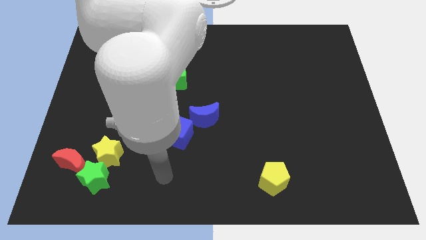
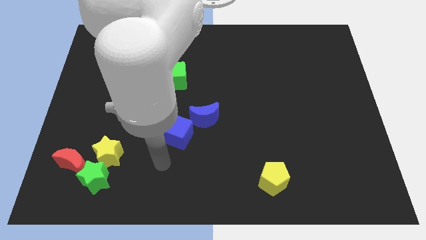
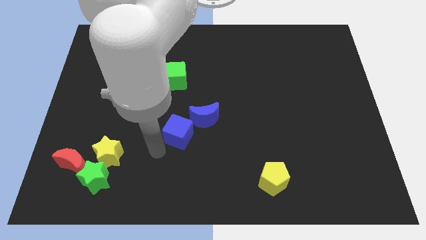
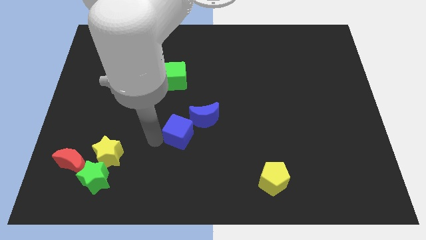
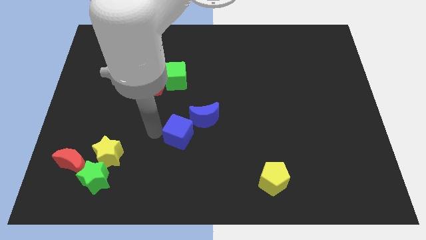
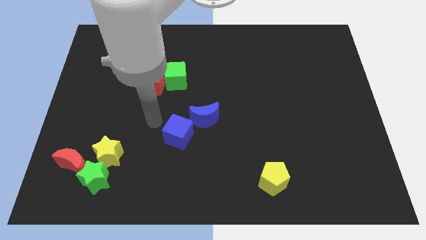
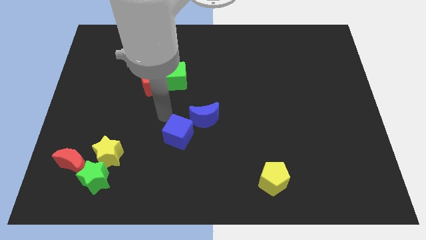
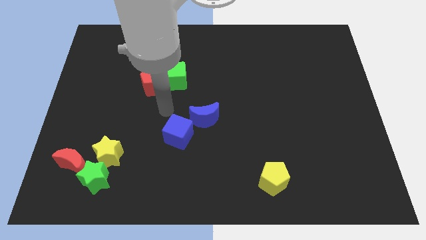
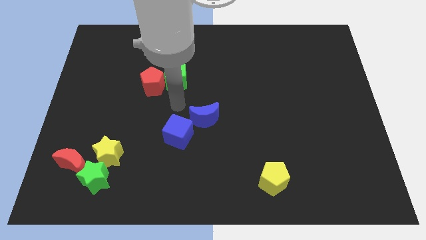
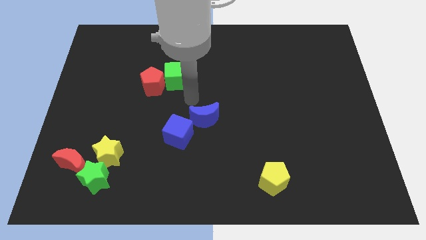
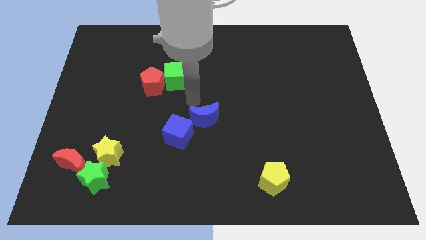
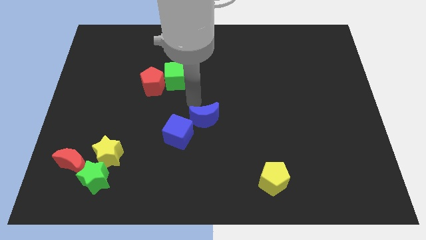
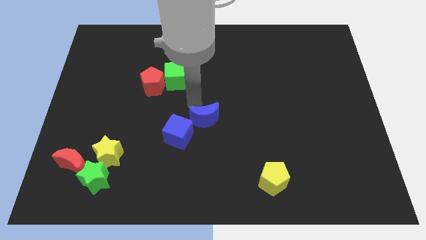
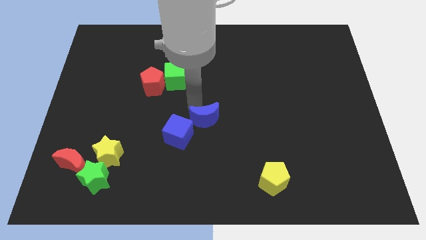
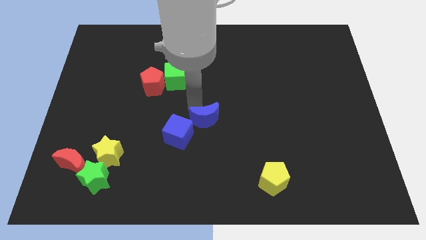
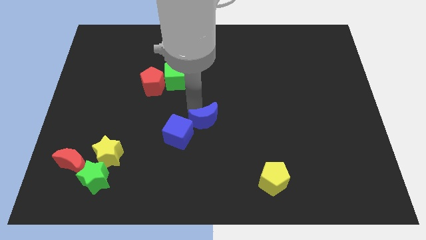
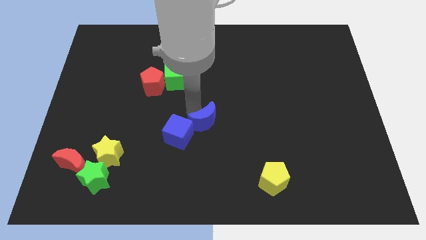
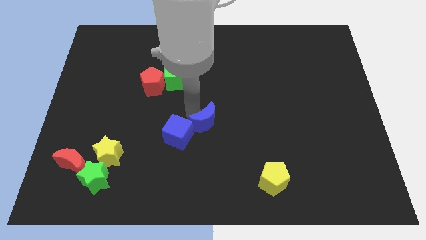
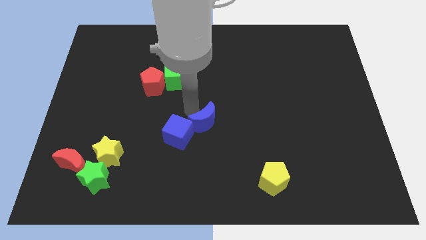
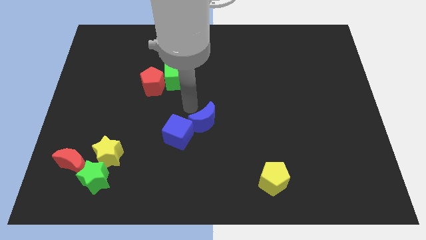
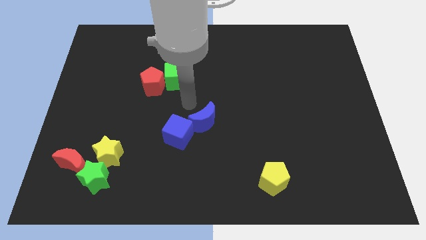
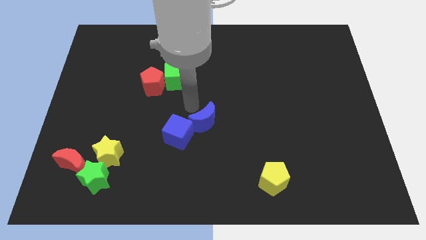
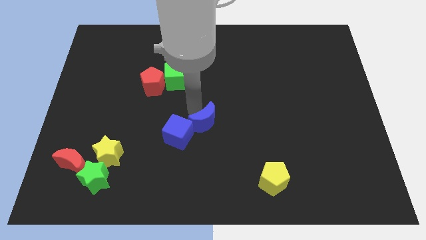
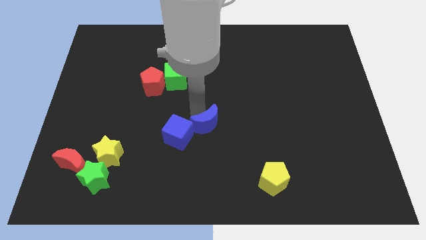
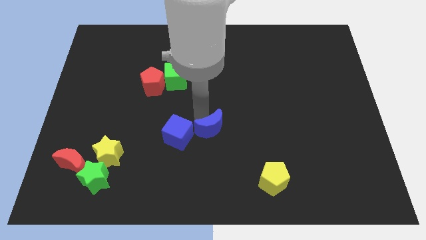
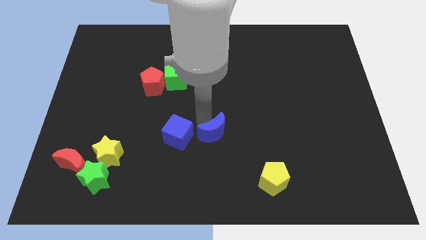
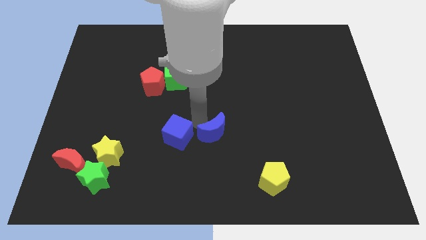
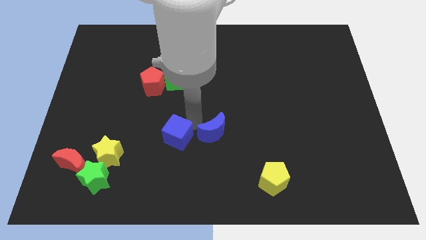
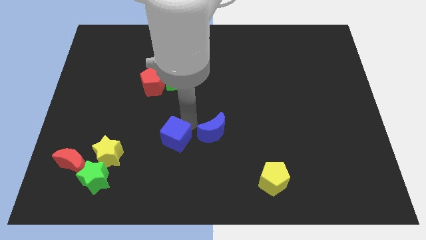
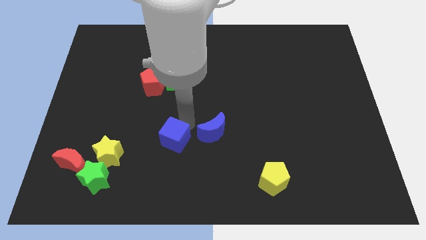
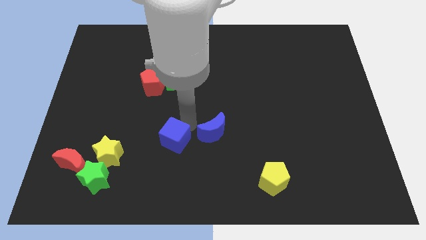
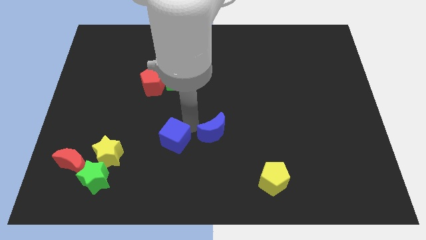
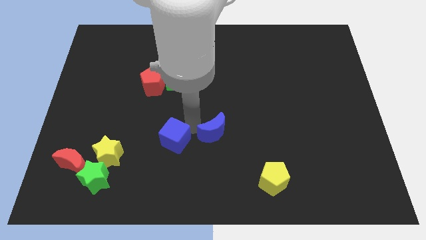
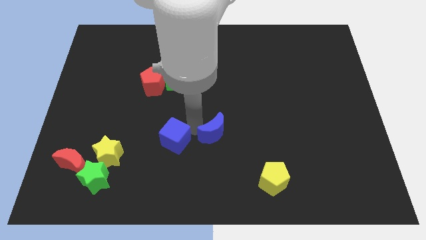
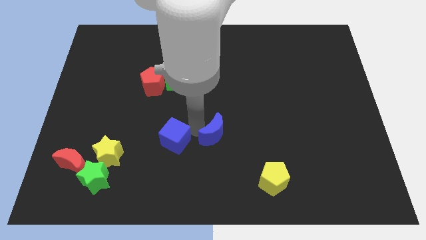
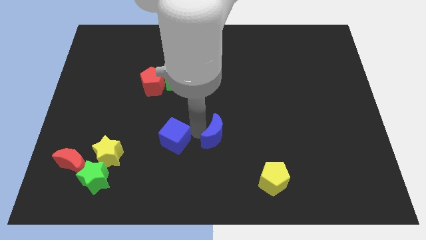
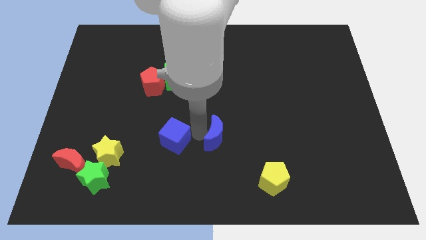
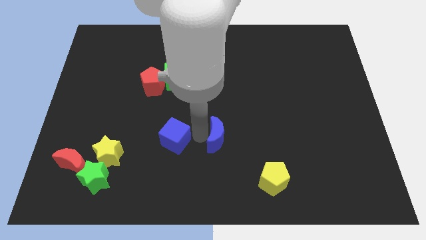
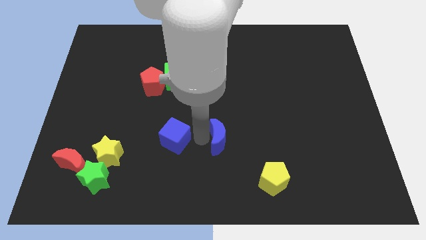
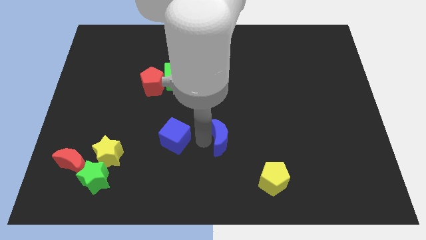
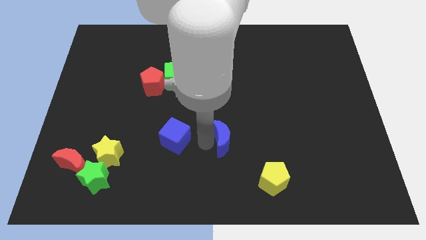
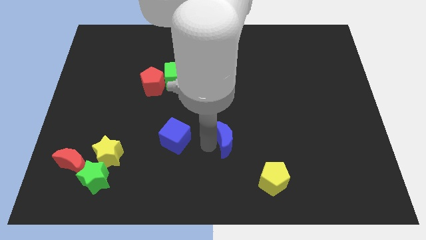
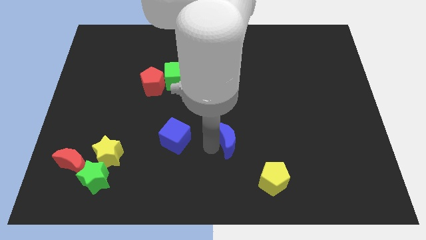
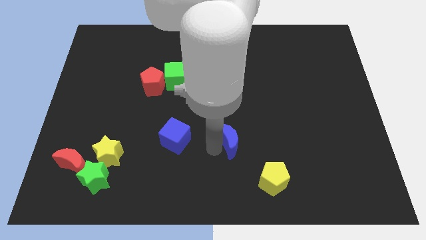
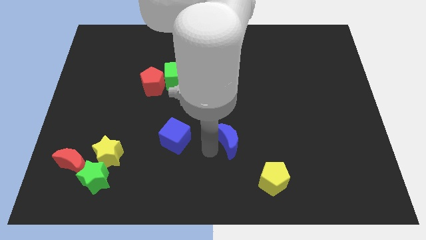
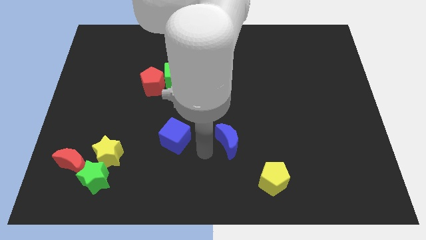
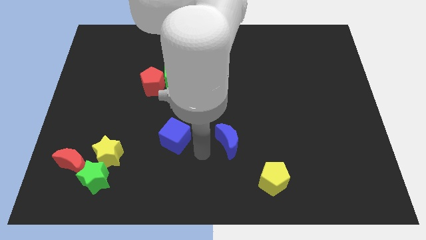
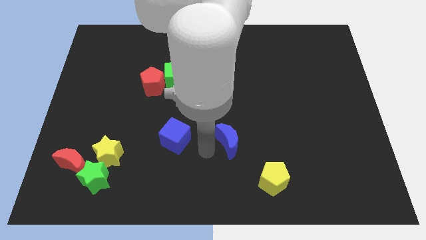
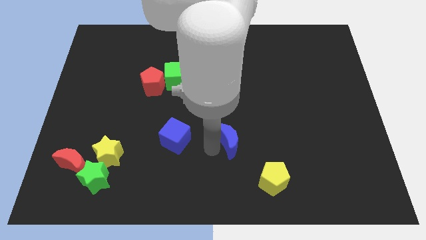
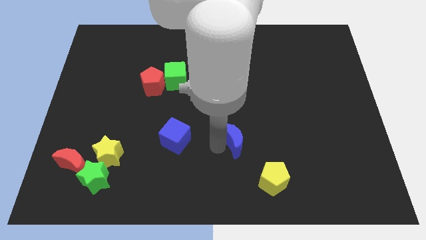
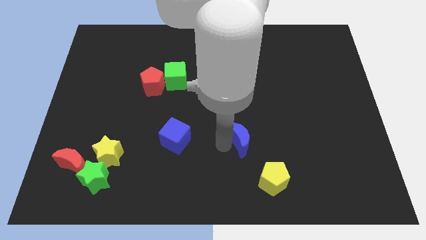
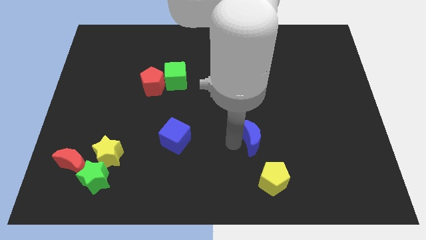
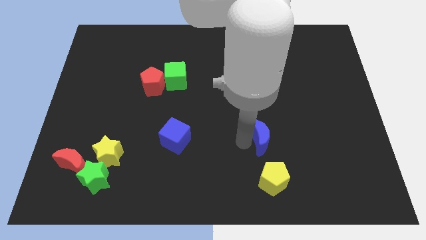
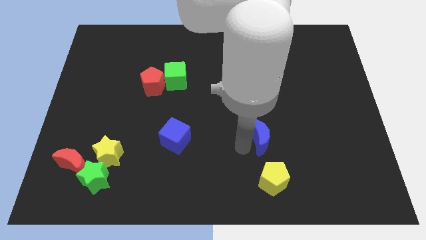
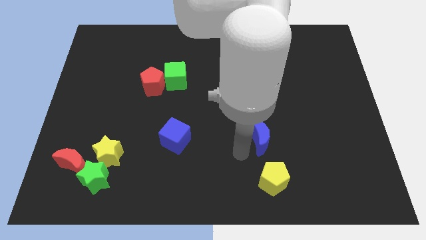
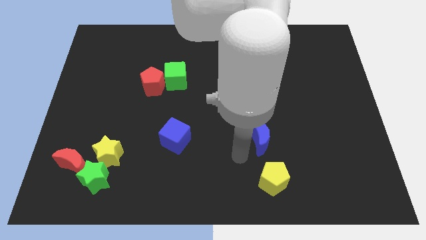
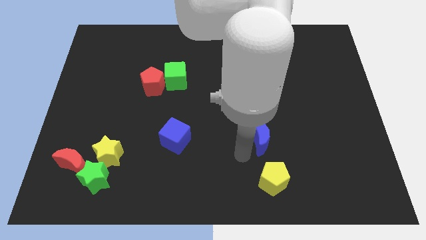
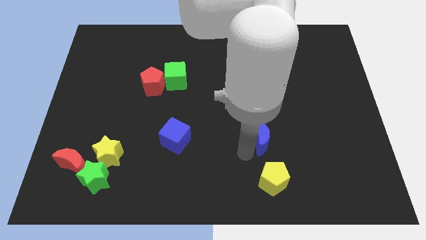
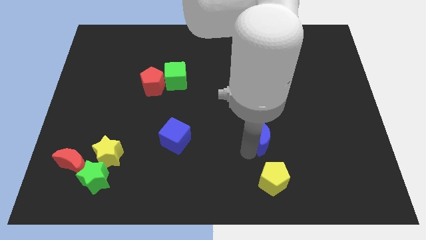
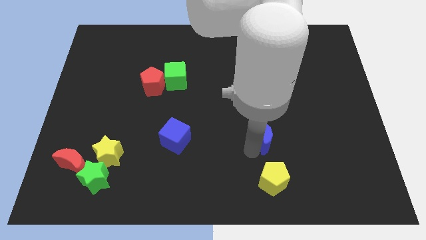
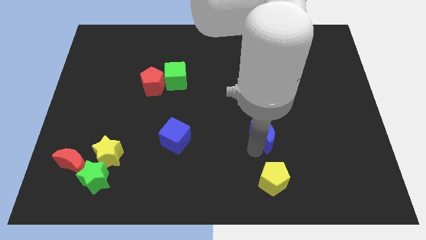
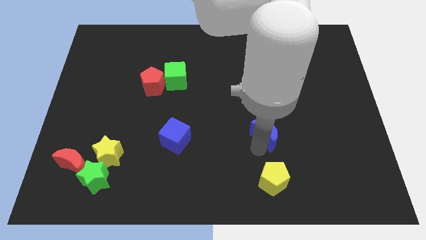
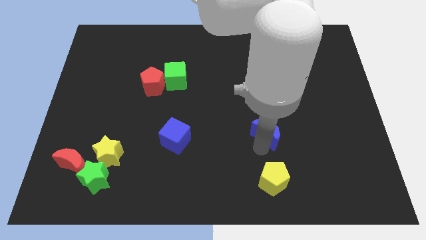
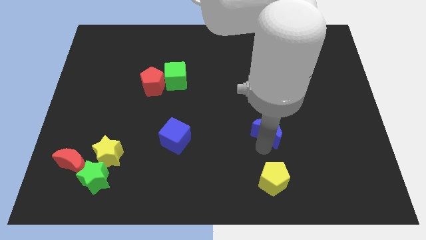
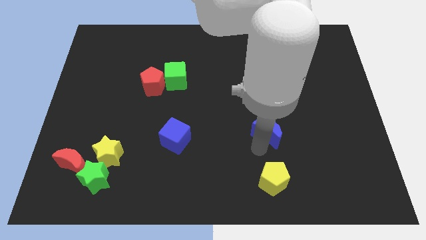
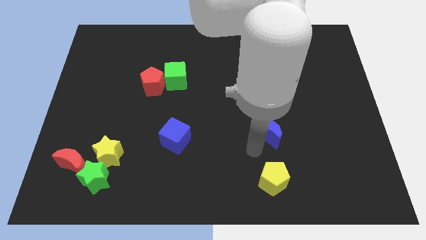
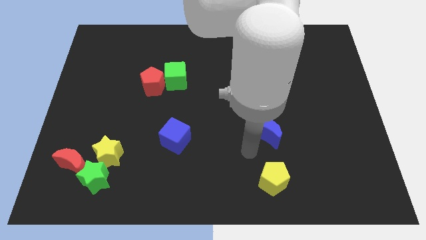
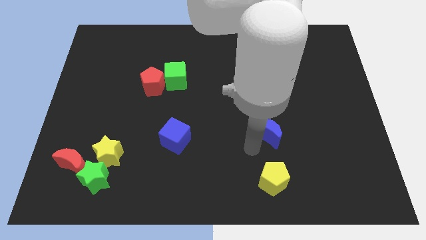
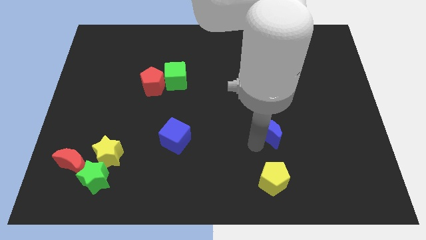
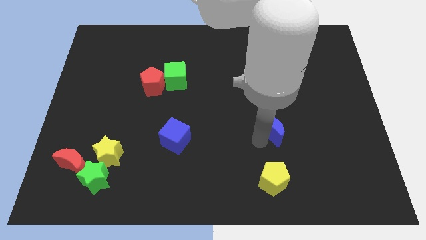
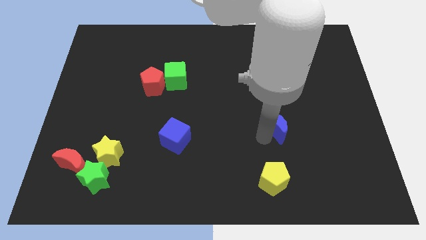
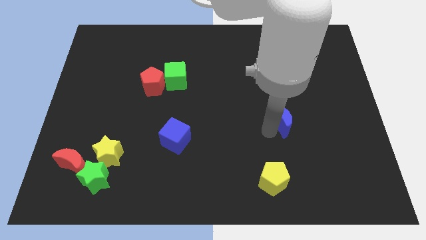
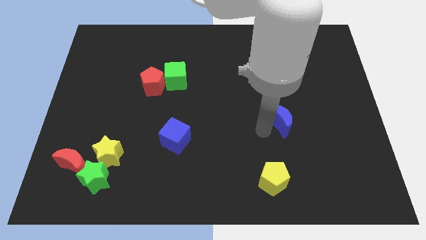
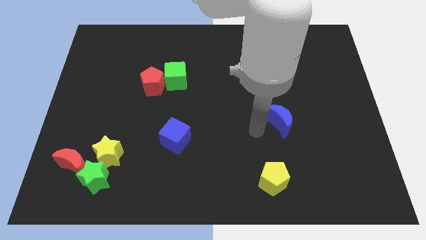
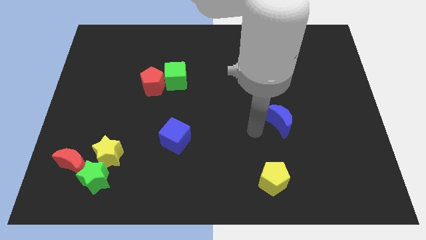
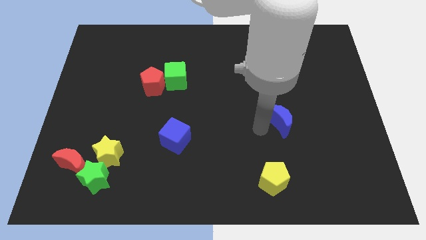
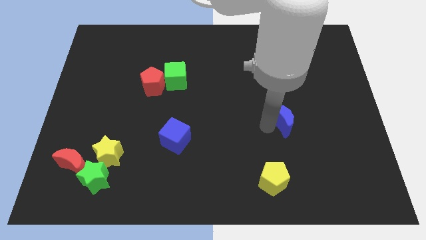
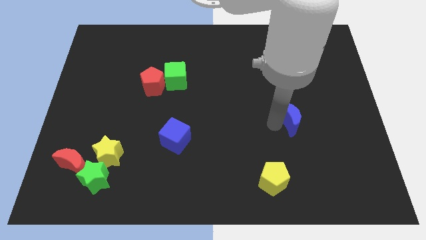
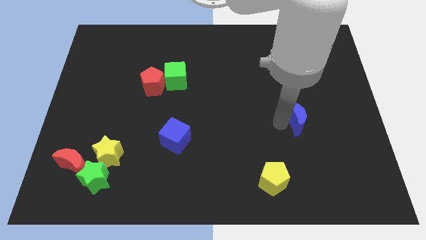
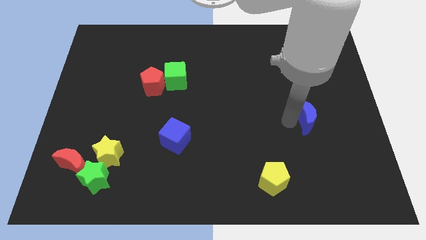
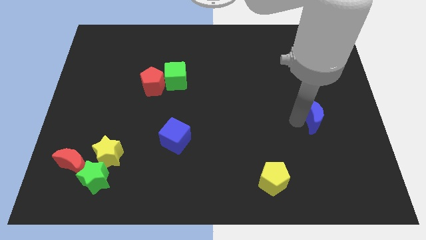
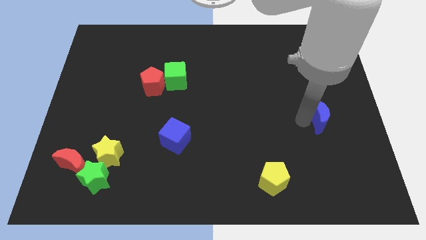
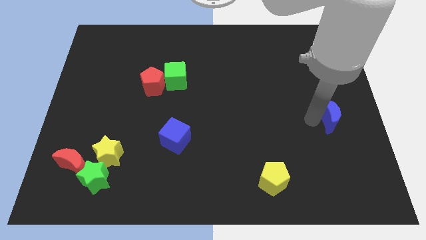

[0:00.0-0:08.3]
slide the blue moon to the center right
